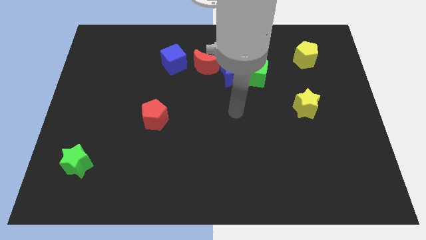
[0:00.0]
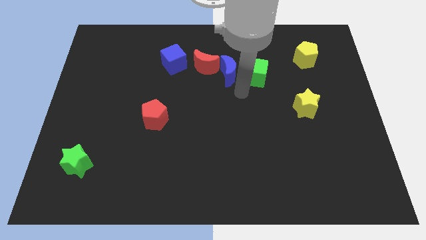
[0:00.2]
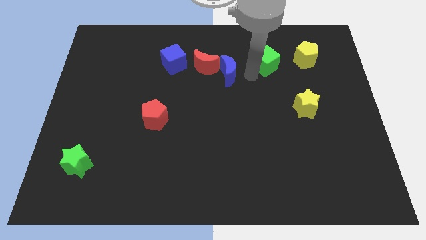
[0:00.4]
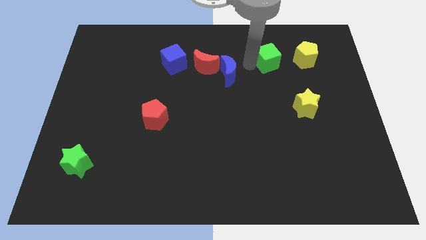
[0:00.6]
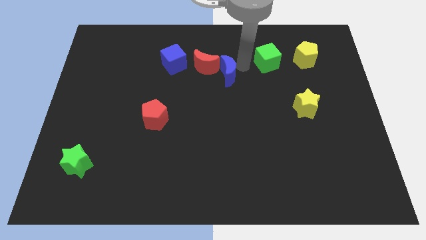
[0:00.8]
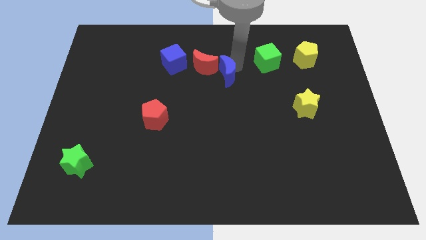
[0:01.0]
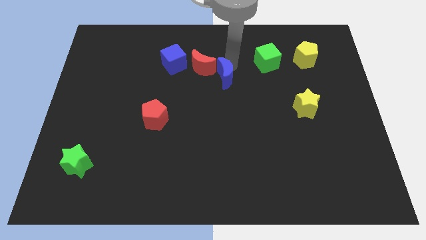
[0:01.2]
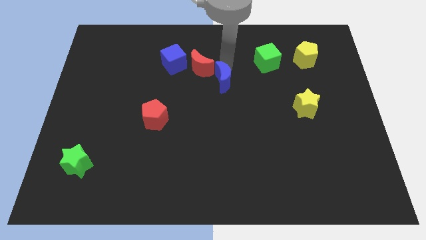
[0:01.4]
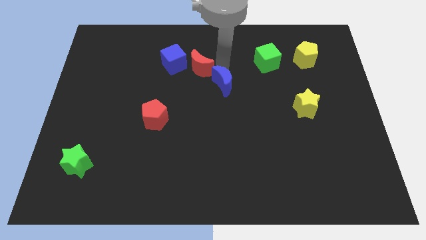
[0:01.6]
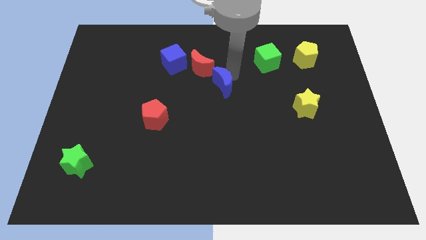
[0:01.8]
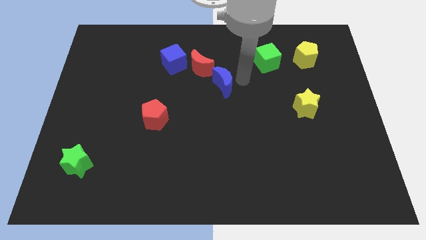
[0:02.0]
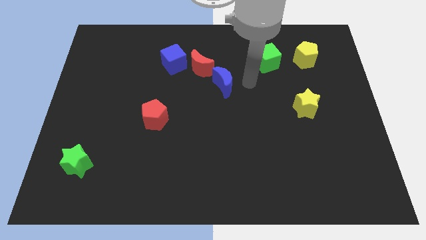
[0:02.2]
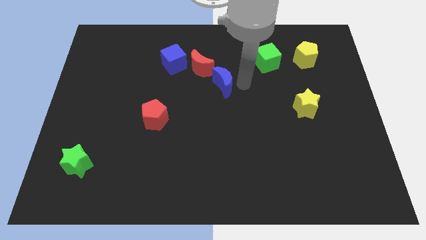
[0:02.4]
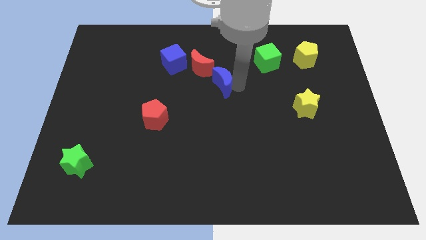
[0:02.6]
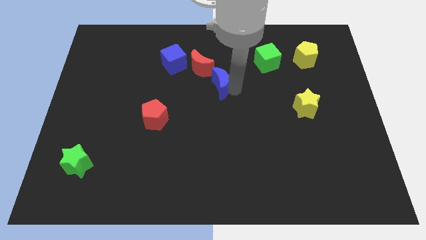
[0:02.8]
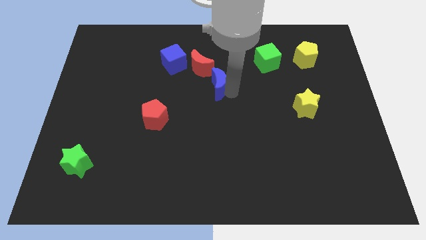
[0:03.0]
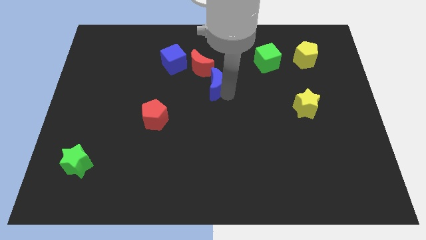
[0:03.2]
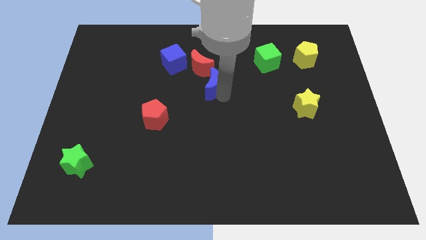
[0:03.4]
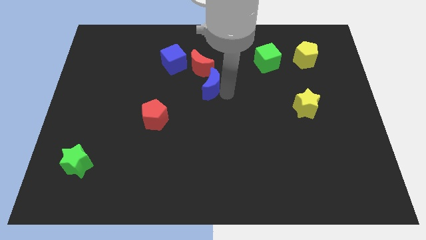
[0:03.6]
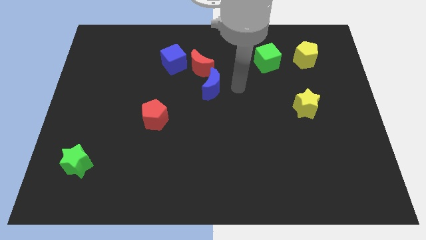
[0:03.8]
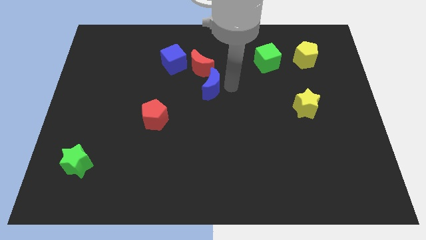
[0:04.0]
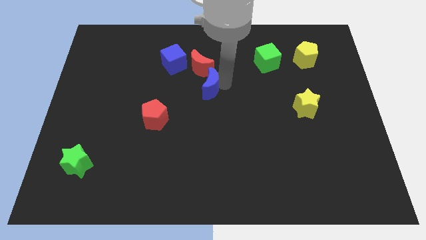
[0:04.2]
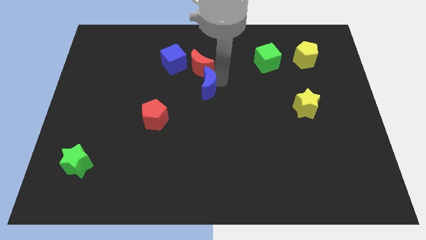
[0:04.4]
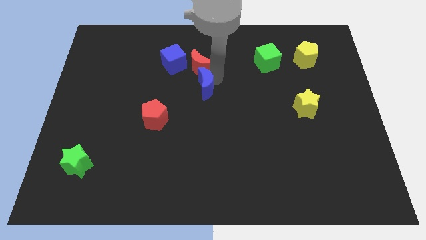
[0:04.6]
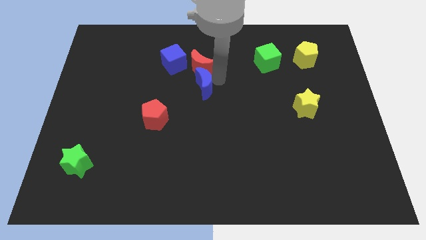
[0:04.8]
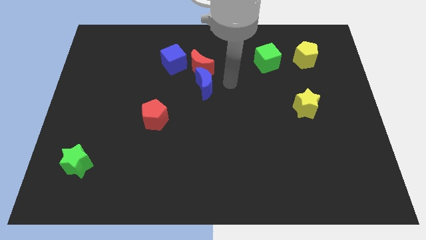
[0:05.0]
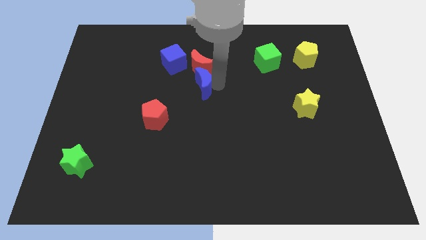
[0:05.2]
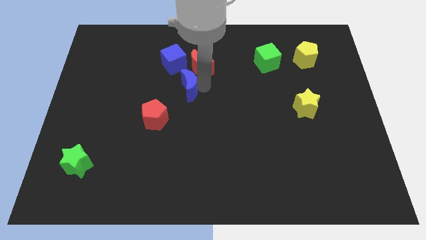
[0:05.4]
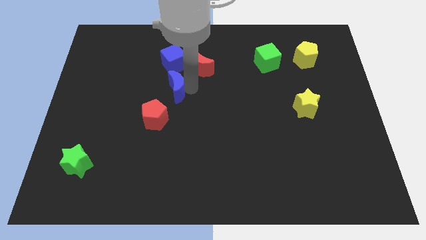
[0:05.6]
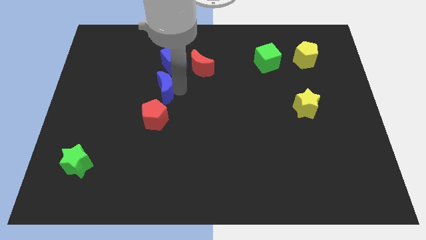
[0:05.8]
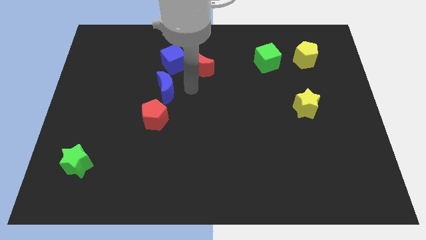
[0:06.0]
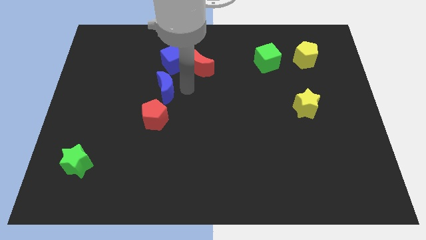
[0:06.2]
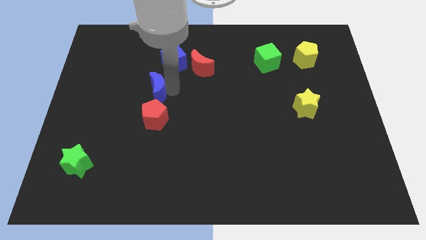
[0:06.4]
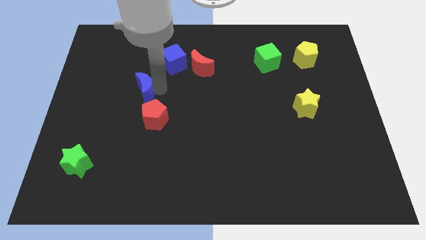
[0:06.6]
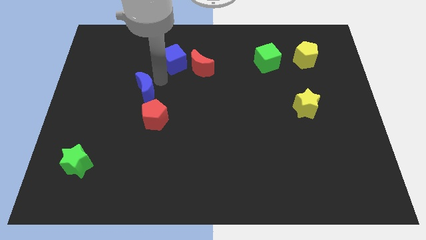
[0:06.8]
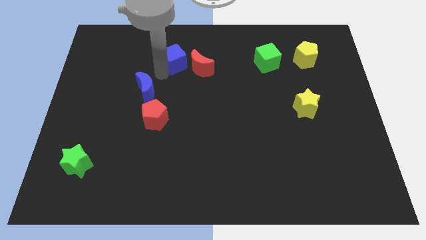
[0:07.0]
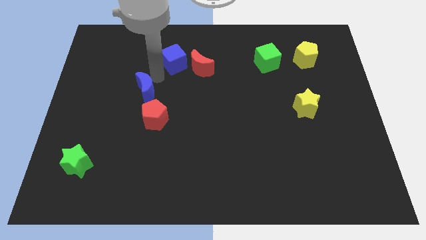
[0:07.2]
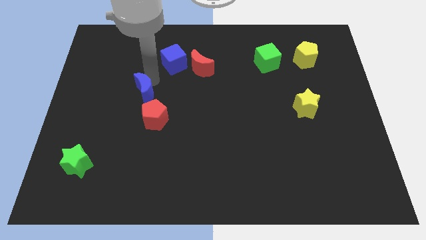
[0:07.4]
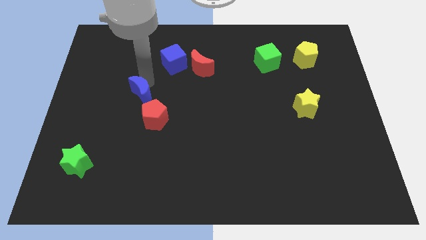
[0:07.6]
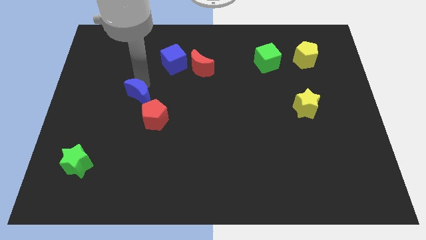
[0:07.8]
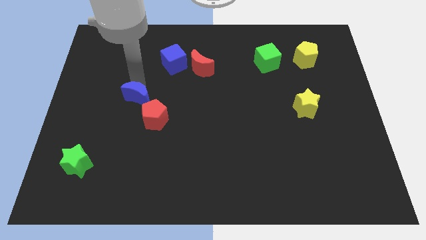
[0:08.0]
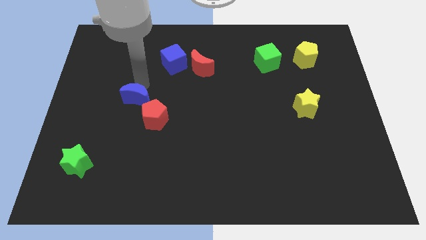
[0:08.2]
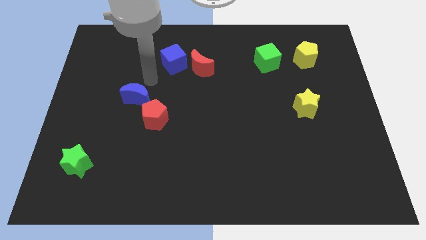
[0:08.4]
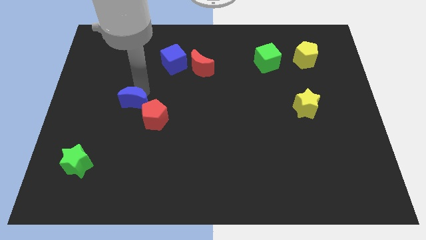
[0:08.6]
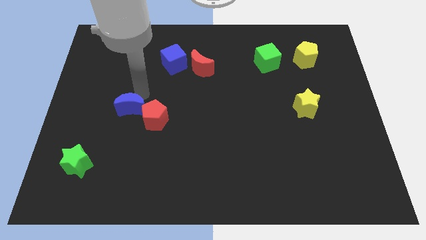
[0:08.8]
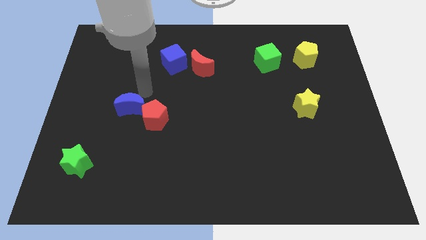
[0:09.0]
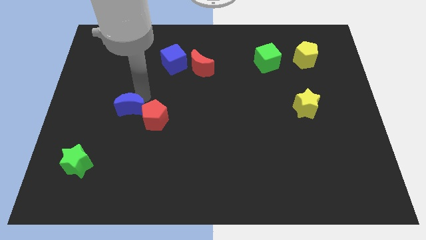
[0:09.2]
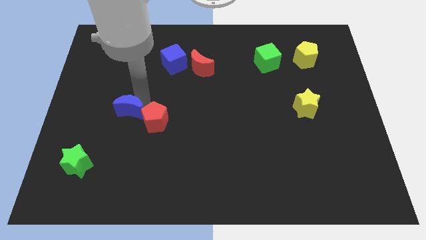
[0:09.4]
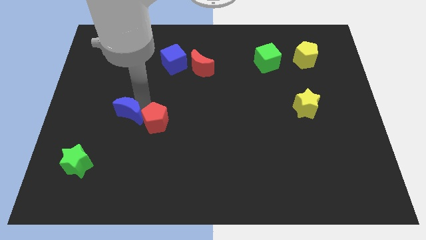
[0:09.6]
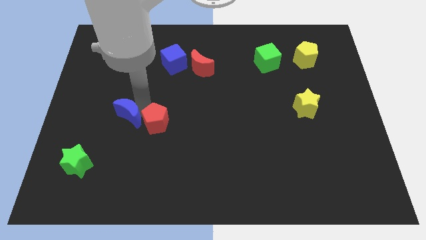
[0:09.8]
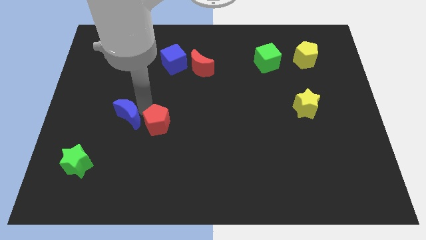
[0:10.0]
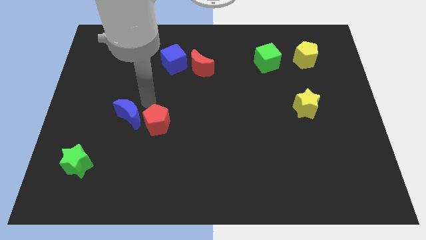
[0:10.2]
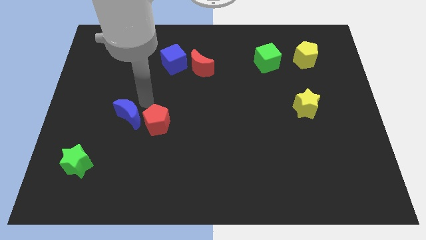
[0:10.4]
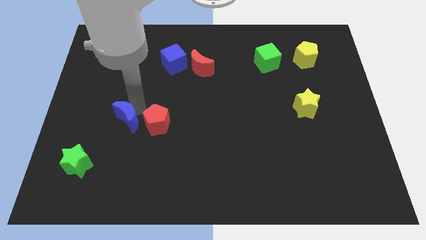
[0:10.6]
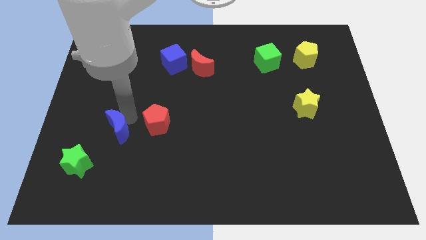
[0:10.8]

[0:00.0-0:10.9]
put the blue moon to the top right of the green star

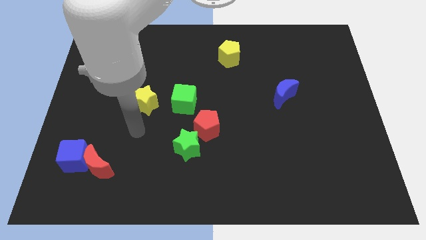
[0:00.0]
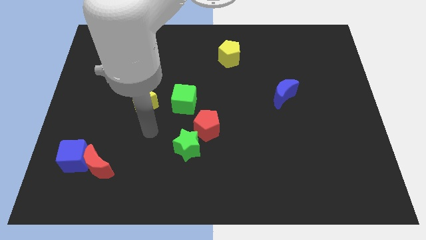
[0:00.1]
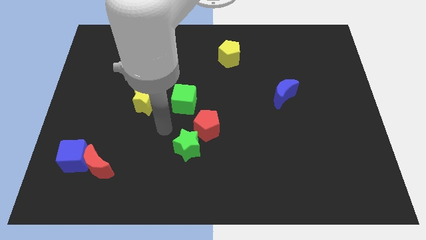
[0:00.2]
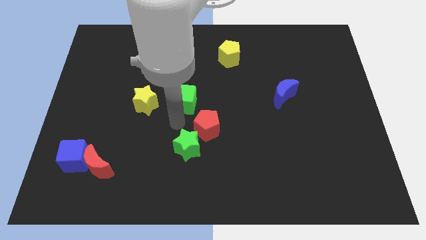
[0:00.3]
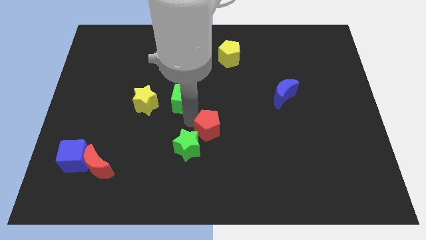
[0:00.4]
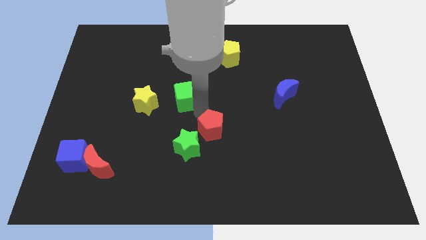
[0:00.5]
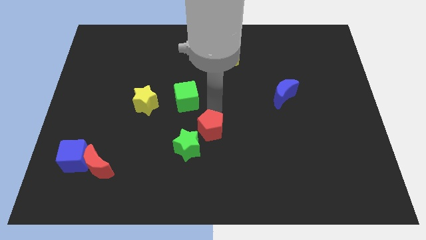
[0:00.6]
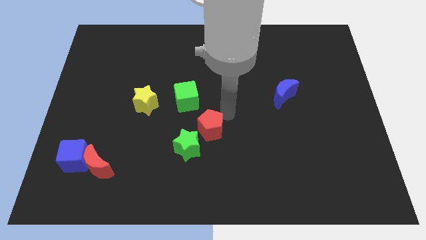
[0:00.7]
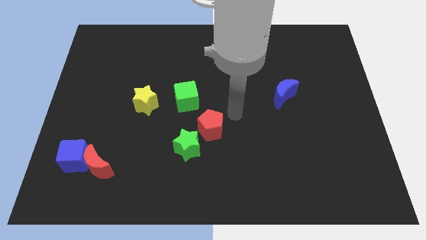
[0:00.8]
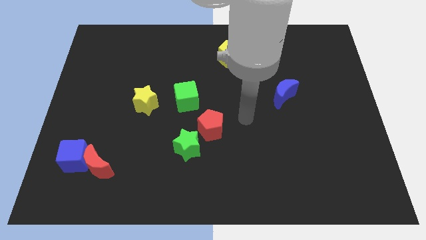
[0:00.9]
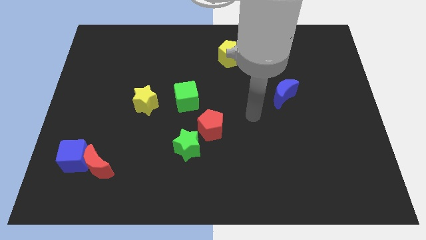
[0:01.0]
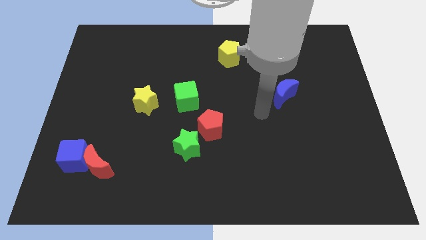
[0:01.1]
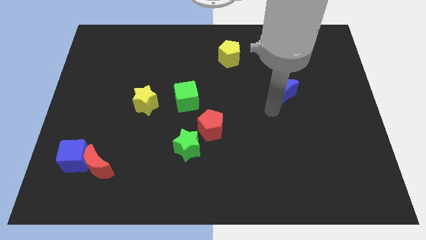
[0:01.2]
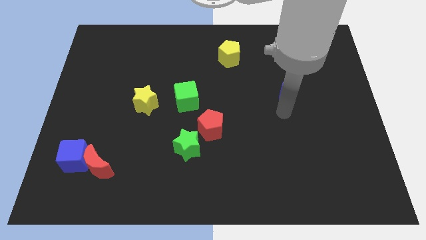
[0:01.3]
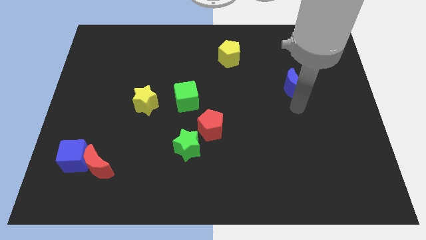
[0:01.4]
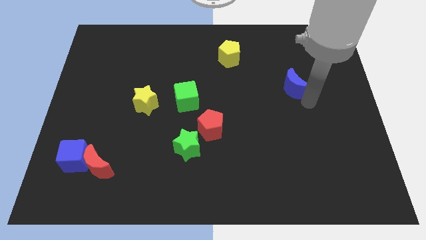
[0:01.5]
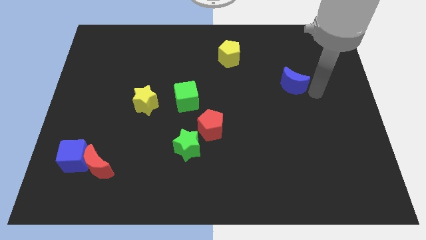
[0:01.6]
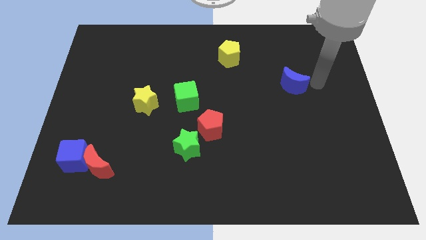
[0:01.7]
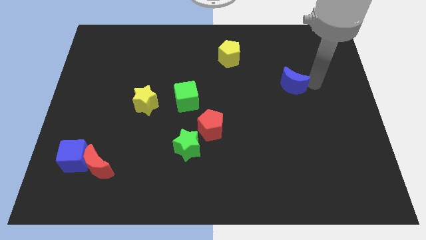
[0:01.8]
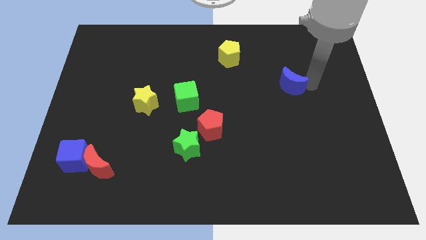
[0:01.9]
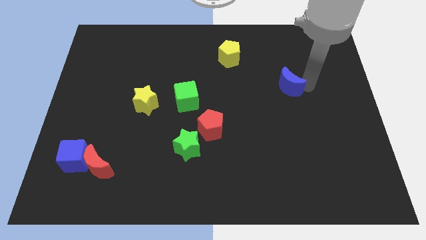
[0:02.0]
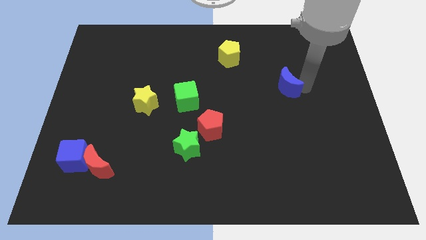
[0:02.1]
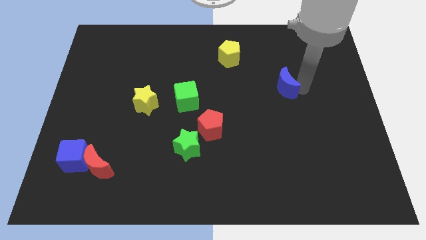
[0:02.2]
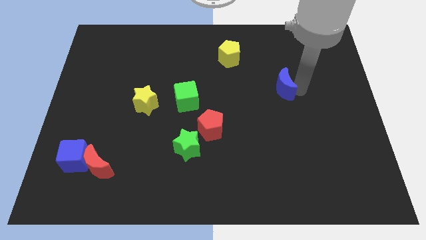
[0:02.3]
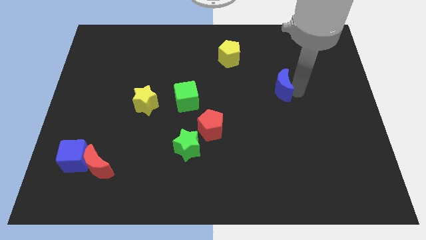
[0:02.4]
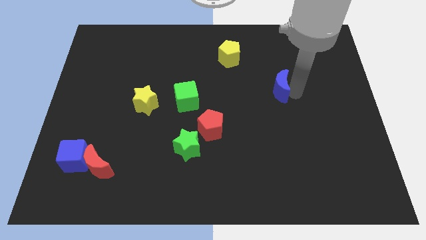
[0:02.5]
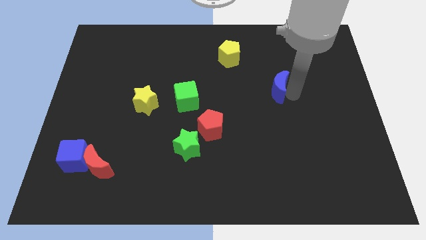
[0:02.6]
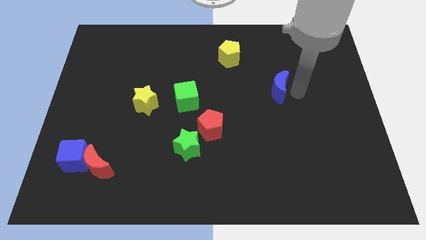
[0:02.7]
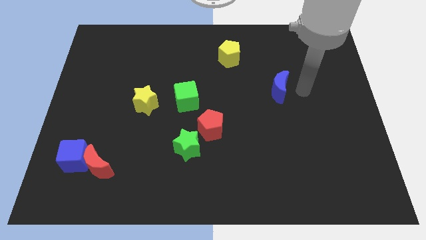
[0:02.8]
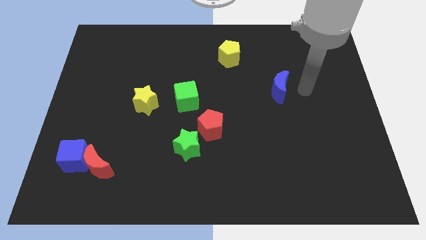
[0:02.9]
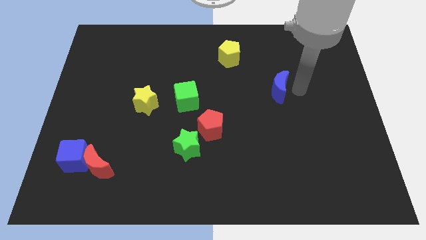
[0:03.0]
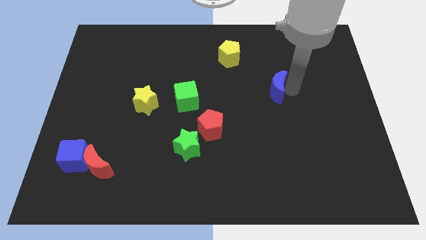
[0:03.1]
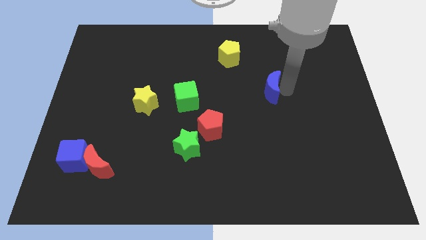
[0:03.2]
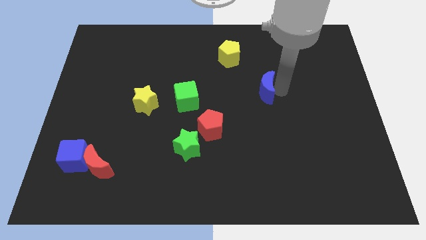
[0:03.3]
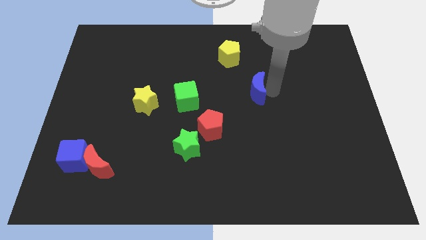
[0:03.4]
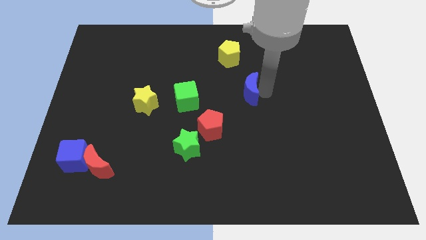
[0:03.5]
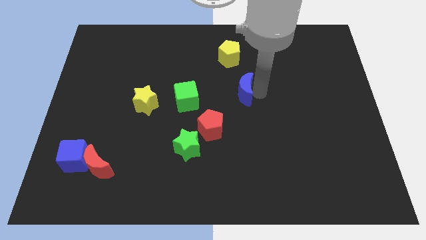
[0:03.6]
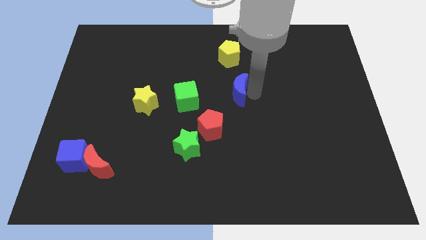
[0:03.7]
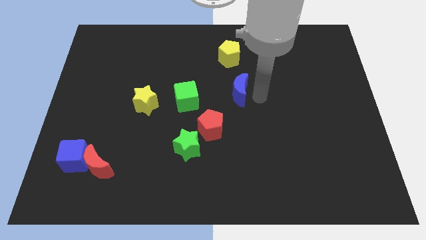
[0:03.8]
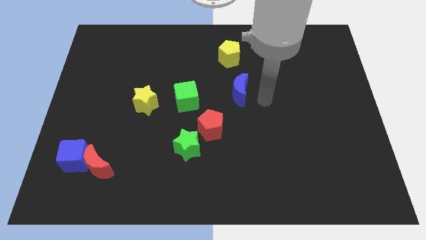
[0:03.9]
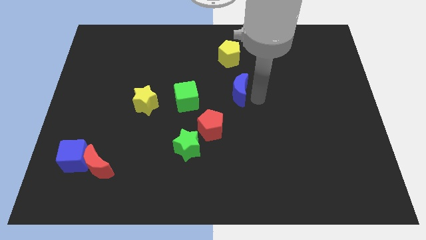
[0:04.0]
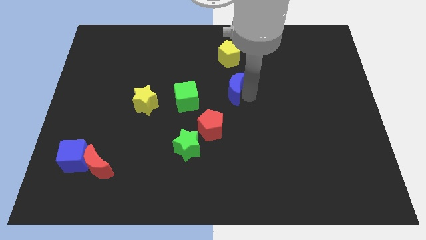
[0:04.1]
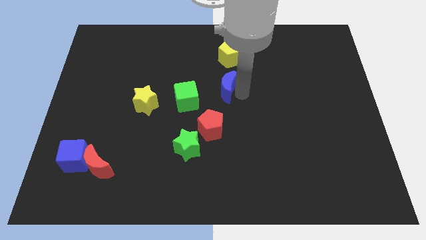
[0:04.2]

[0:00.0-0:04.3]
push the blue moon to the top right side of the green cube
